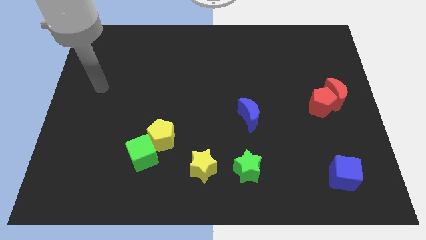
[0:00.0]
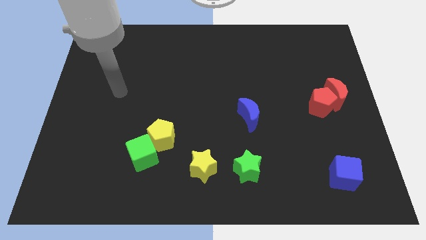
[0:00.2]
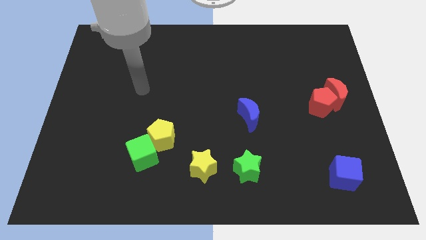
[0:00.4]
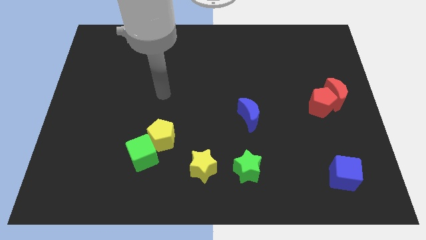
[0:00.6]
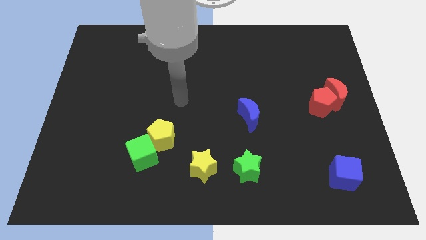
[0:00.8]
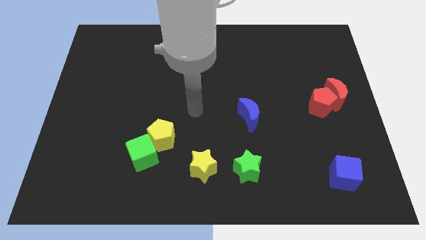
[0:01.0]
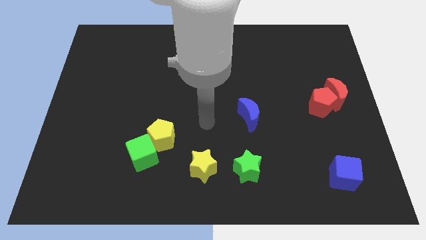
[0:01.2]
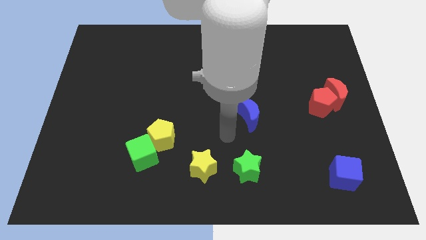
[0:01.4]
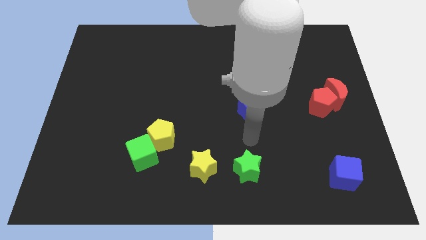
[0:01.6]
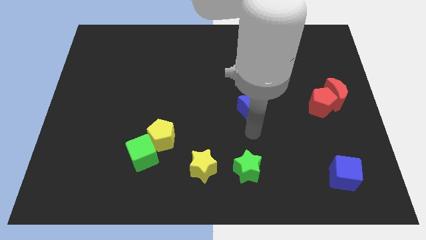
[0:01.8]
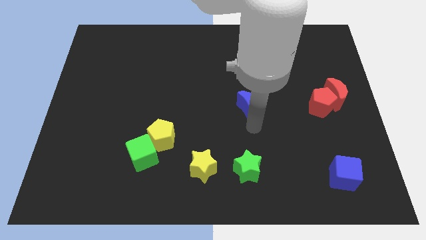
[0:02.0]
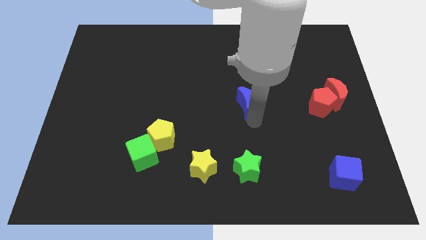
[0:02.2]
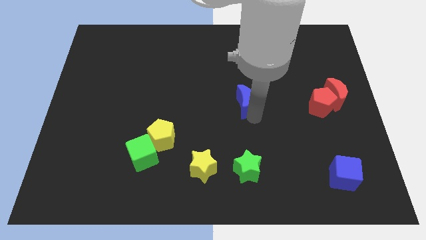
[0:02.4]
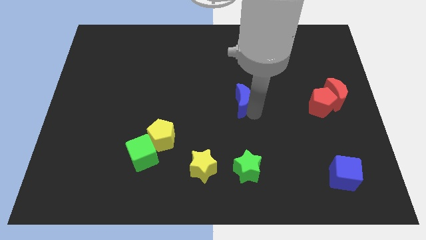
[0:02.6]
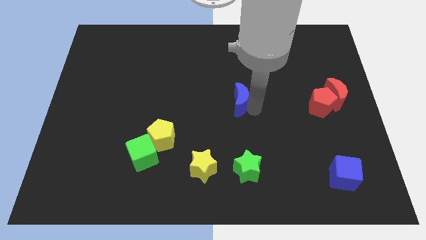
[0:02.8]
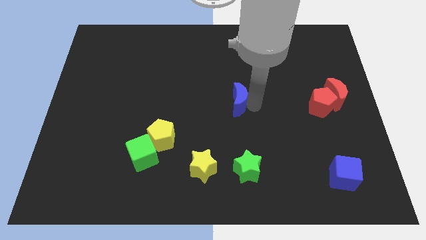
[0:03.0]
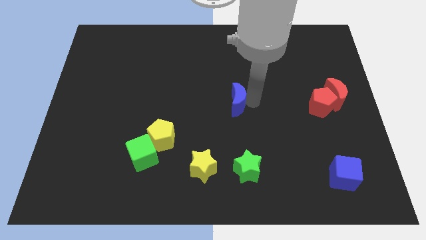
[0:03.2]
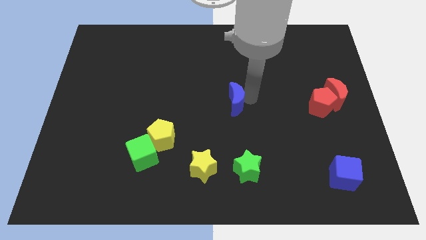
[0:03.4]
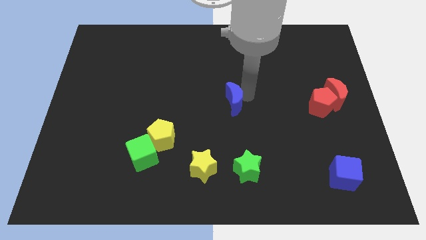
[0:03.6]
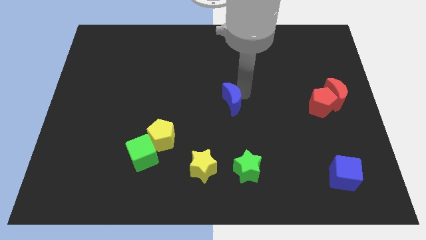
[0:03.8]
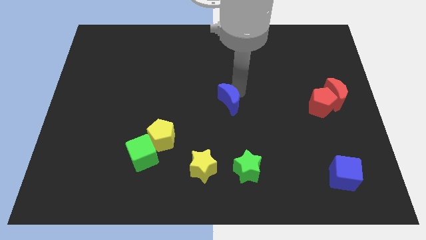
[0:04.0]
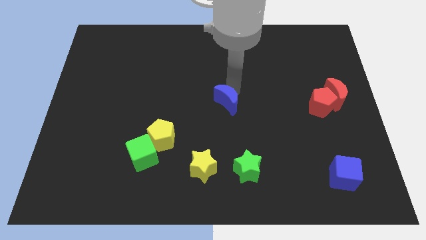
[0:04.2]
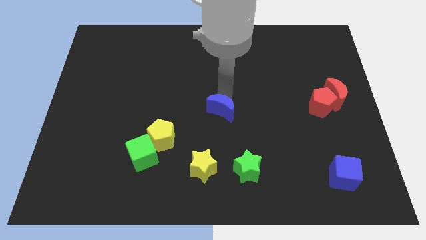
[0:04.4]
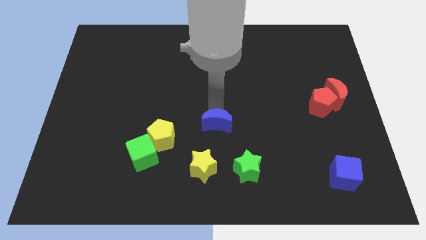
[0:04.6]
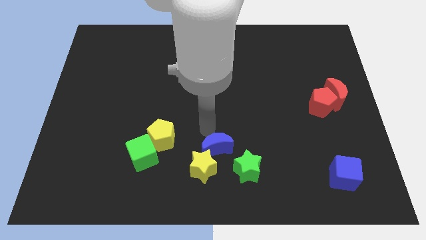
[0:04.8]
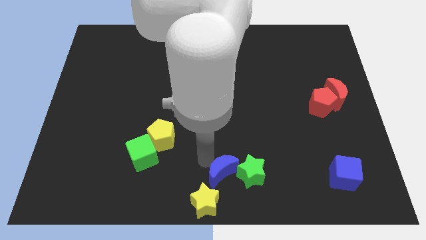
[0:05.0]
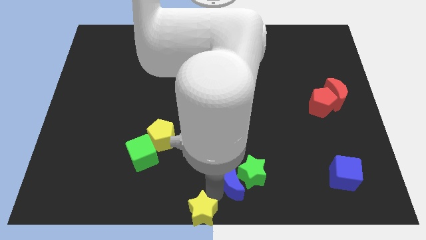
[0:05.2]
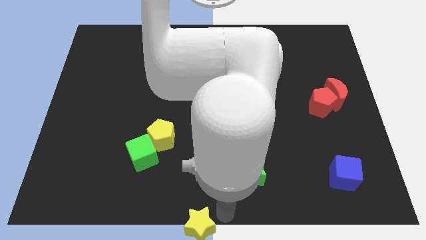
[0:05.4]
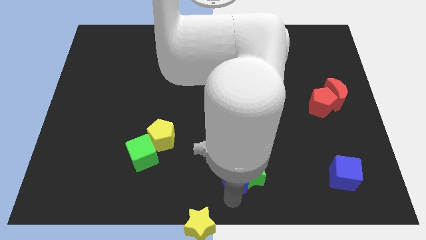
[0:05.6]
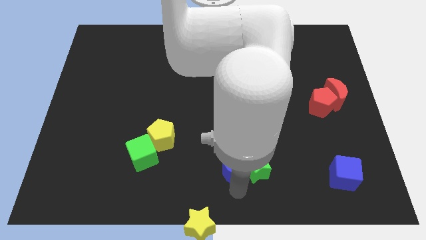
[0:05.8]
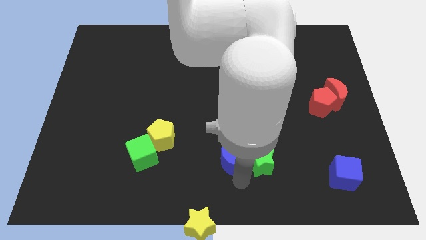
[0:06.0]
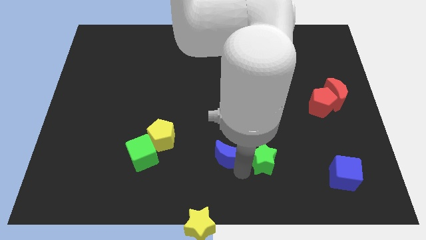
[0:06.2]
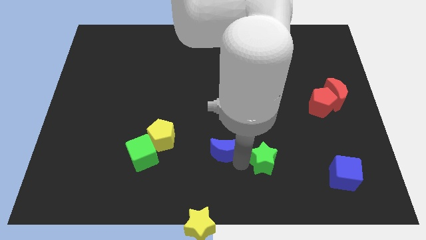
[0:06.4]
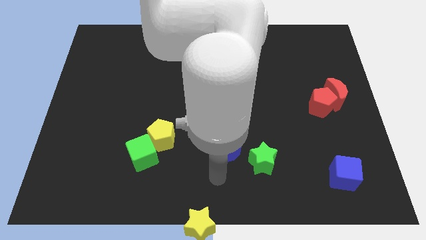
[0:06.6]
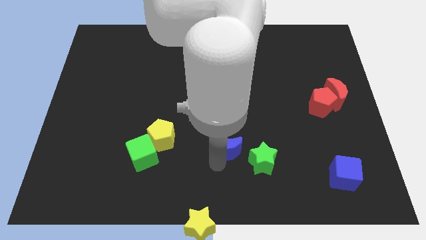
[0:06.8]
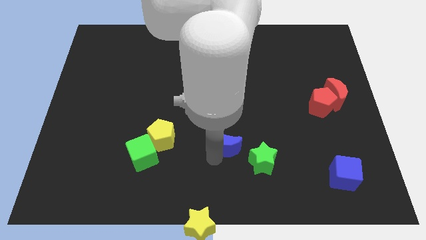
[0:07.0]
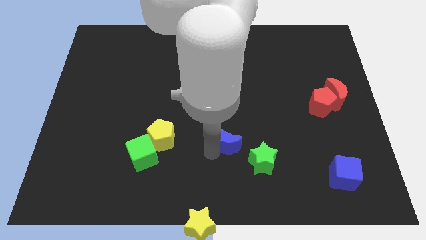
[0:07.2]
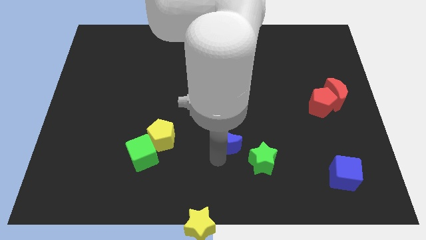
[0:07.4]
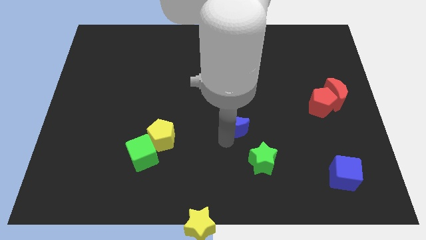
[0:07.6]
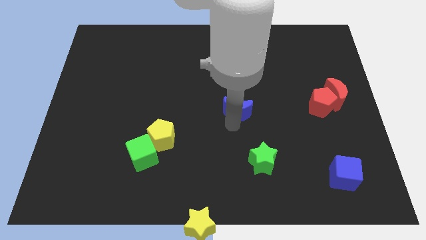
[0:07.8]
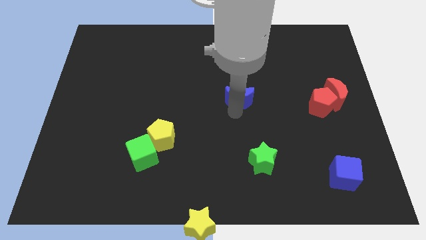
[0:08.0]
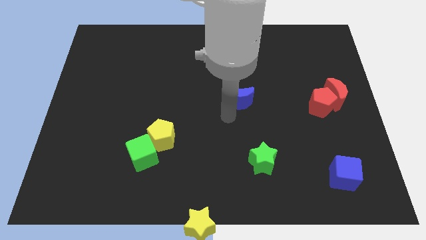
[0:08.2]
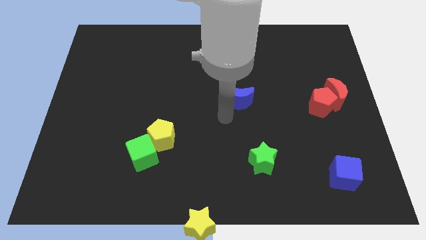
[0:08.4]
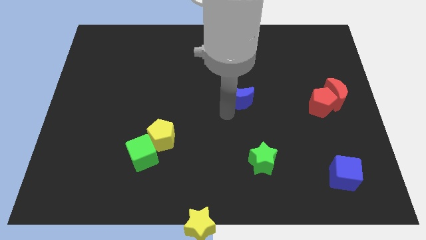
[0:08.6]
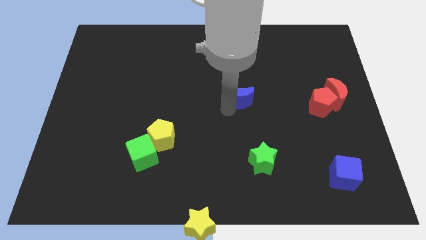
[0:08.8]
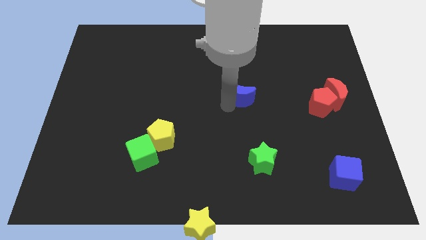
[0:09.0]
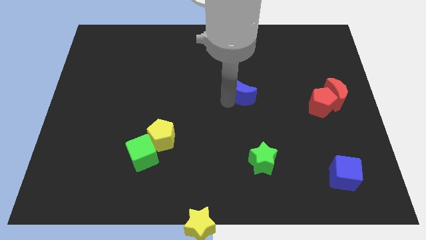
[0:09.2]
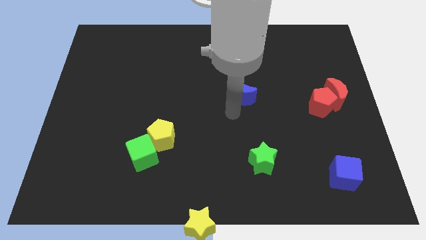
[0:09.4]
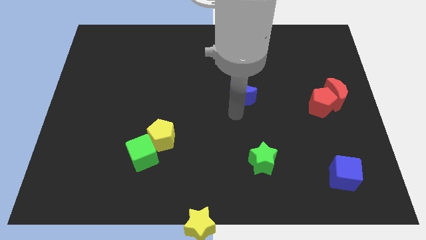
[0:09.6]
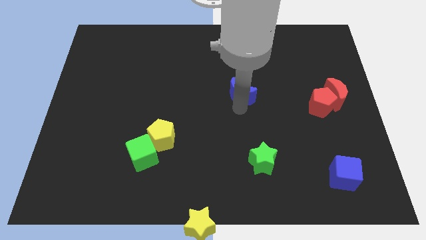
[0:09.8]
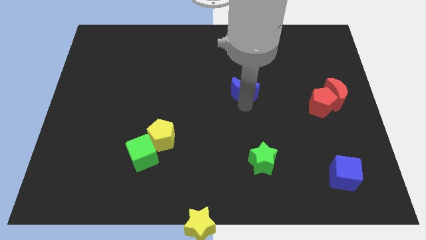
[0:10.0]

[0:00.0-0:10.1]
push the blue moon somewhat upwards

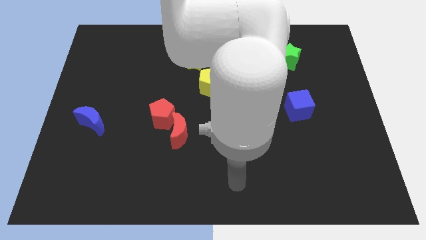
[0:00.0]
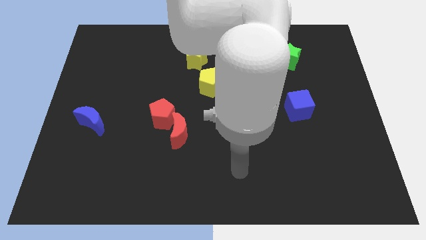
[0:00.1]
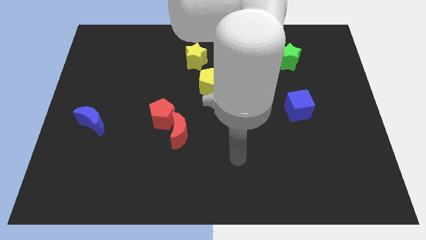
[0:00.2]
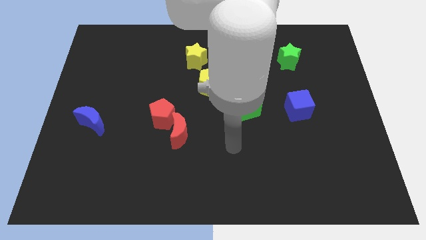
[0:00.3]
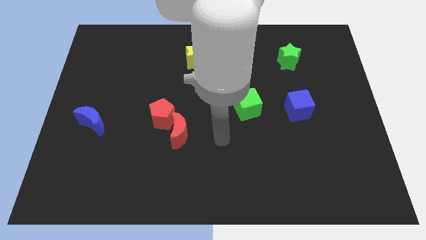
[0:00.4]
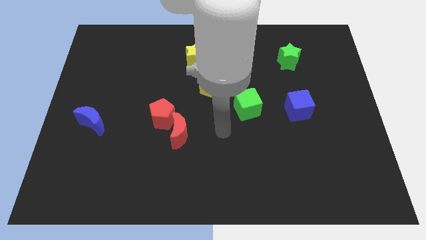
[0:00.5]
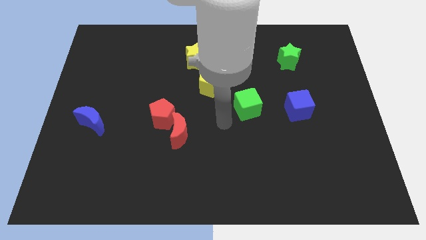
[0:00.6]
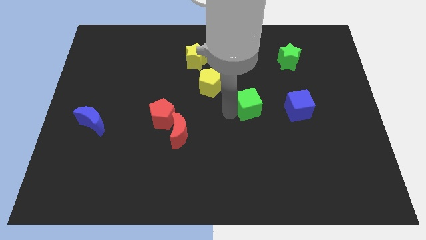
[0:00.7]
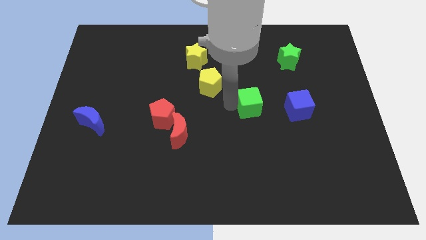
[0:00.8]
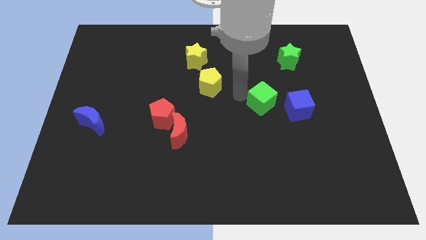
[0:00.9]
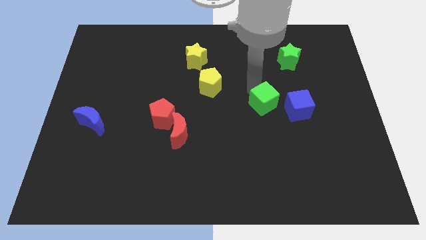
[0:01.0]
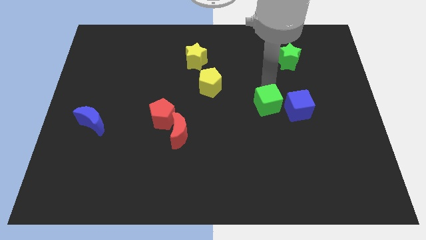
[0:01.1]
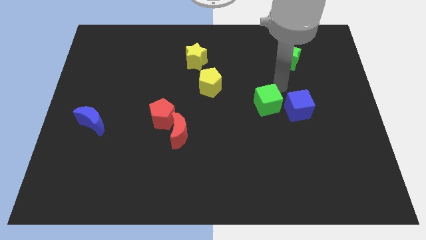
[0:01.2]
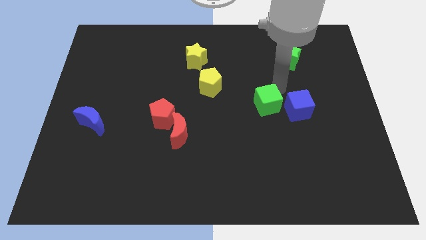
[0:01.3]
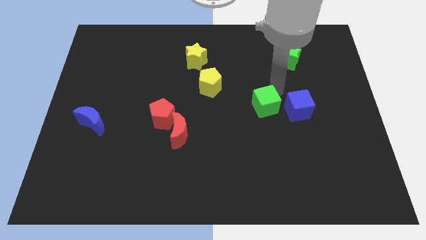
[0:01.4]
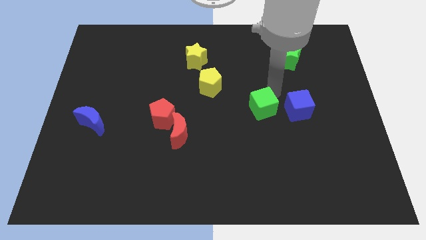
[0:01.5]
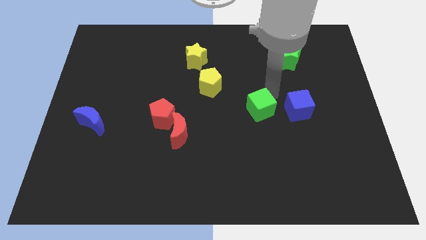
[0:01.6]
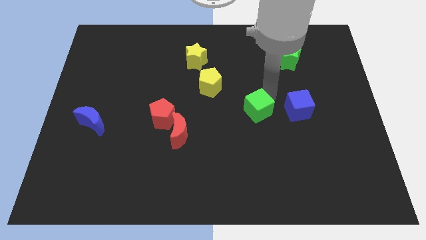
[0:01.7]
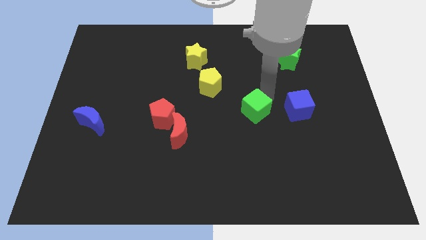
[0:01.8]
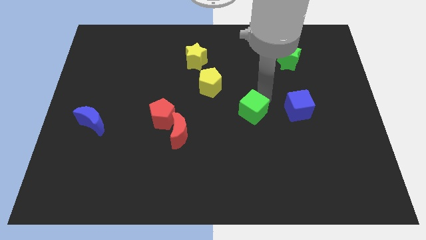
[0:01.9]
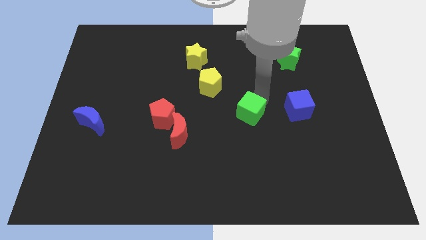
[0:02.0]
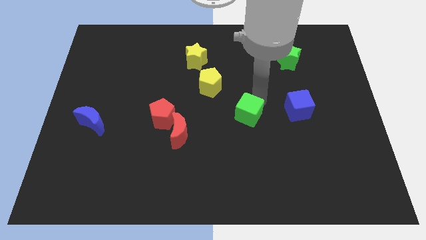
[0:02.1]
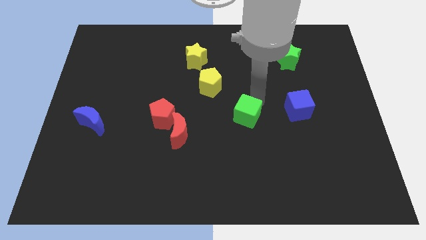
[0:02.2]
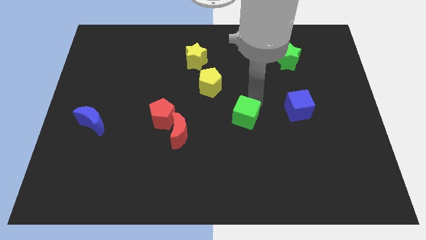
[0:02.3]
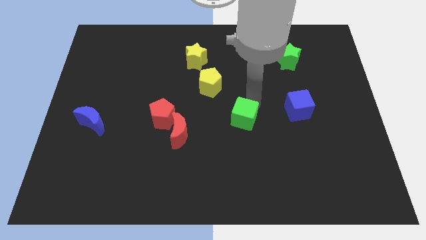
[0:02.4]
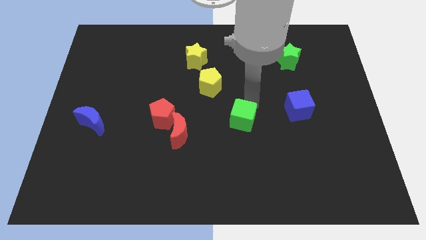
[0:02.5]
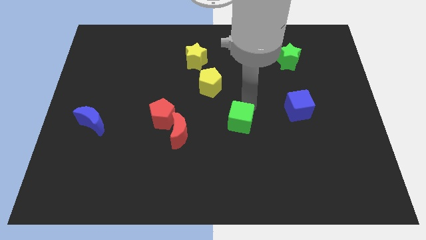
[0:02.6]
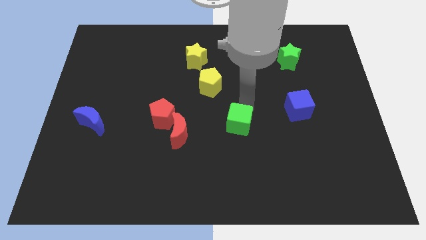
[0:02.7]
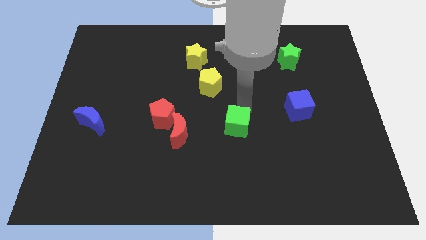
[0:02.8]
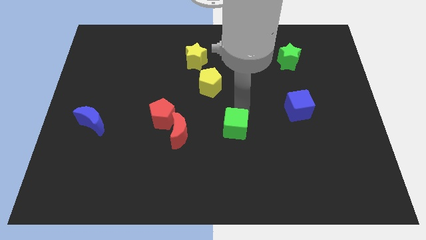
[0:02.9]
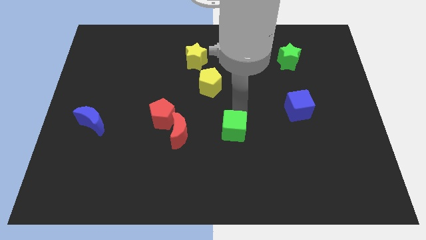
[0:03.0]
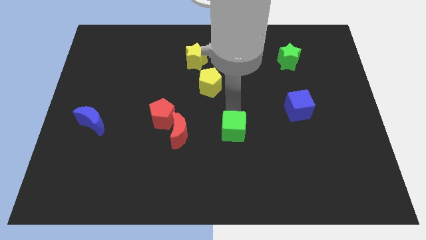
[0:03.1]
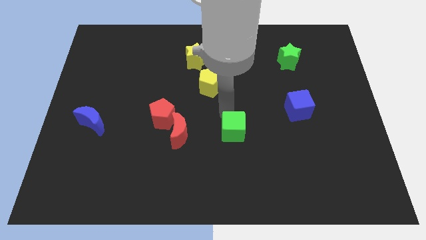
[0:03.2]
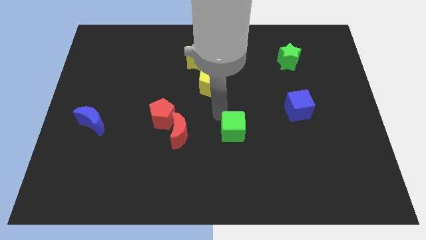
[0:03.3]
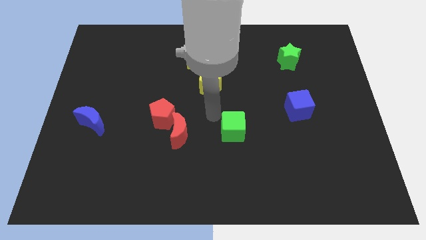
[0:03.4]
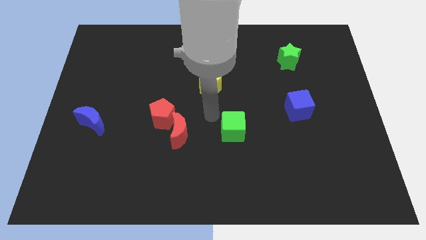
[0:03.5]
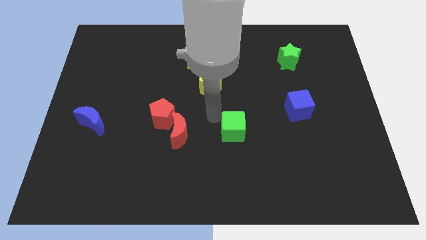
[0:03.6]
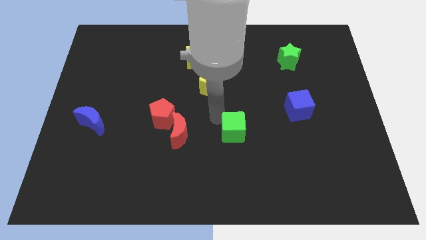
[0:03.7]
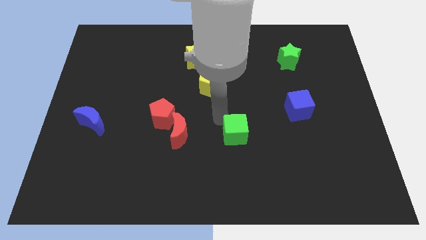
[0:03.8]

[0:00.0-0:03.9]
move the green cube downwards a little
